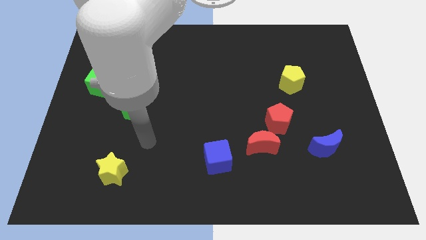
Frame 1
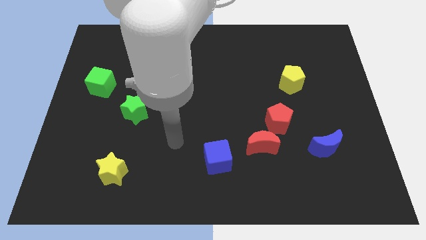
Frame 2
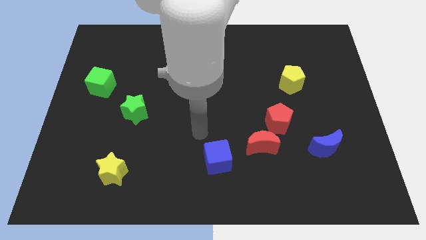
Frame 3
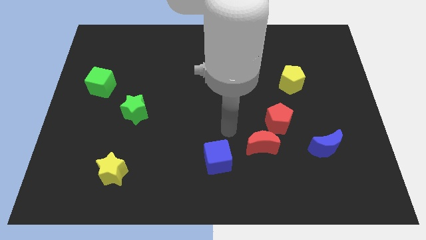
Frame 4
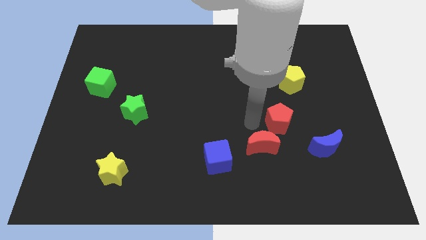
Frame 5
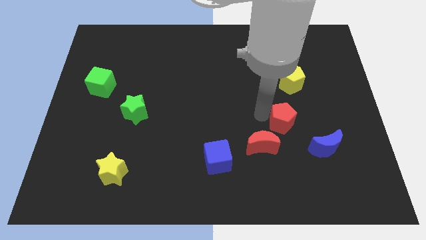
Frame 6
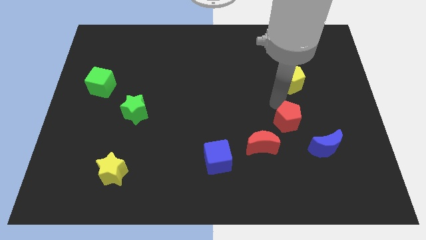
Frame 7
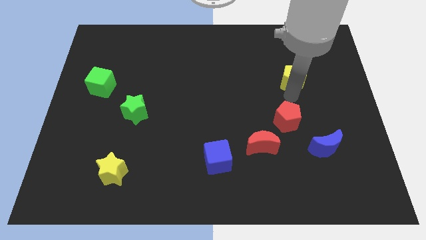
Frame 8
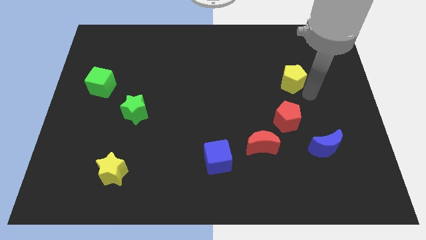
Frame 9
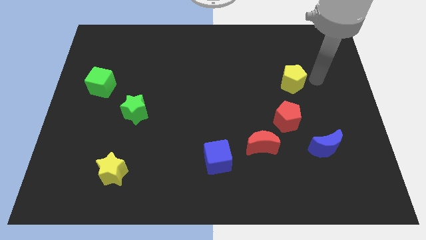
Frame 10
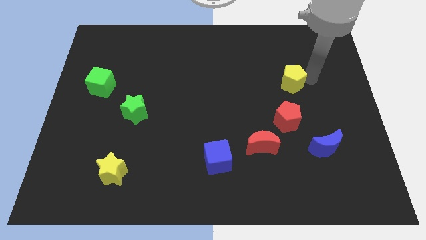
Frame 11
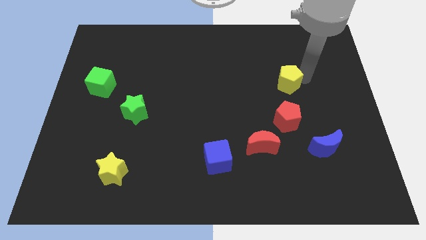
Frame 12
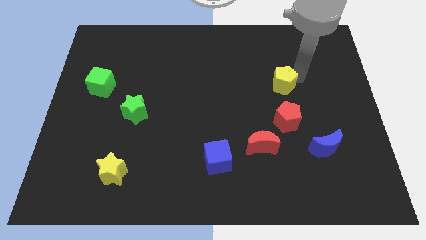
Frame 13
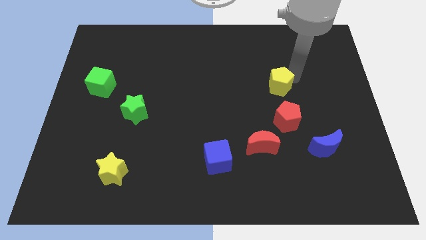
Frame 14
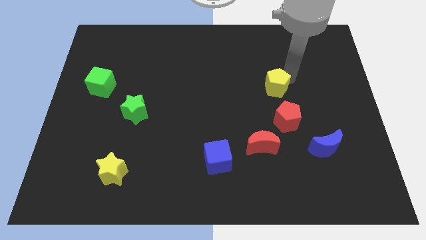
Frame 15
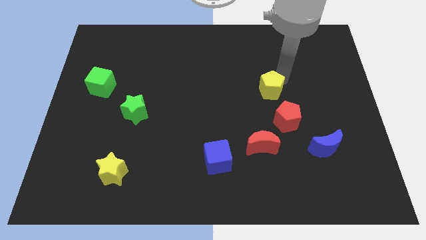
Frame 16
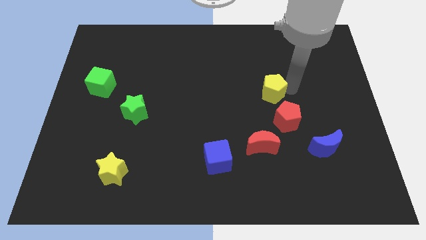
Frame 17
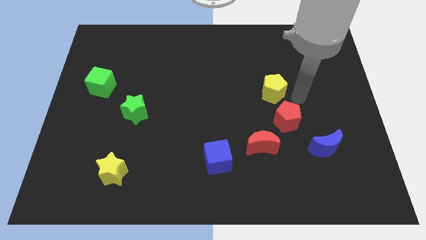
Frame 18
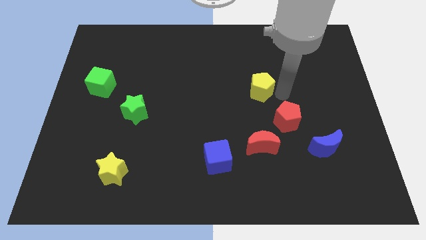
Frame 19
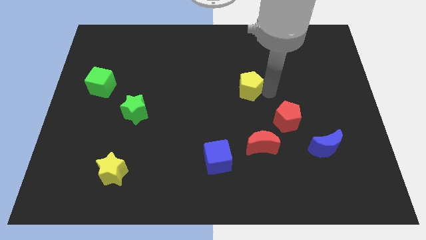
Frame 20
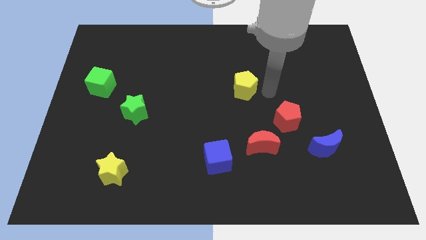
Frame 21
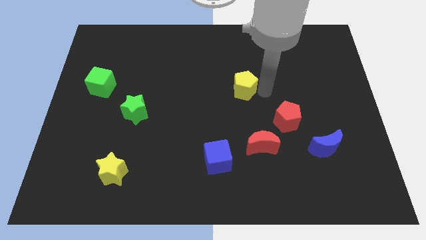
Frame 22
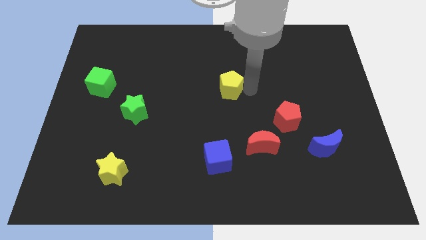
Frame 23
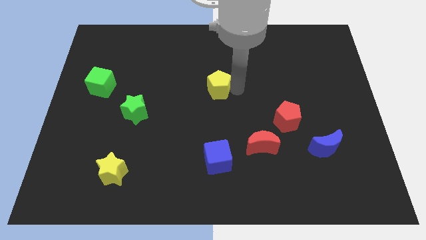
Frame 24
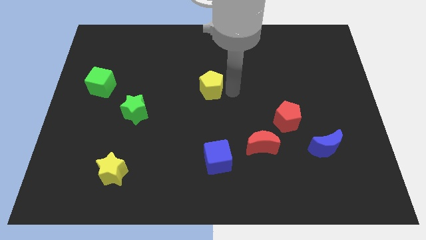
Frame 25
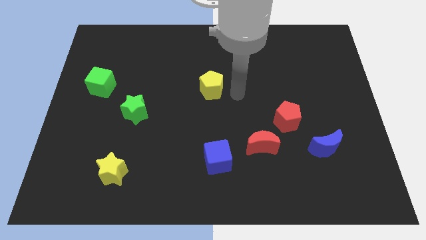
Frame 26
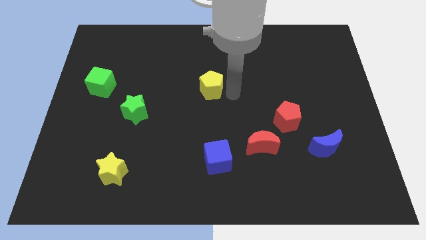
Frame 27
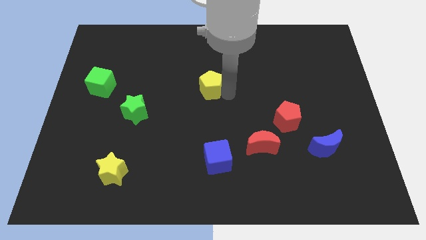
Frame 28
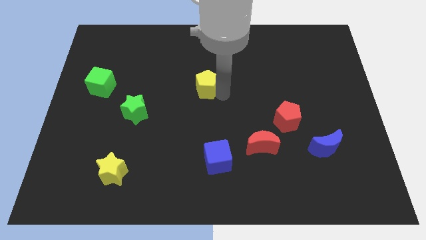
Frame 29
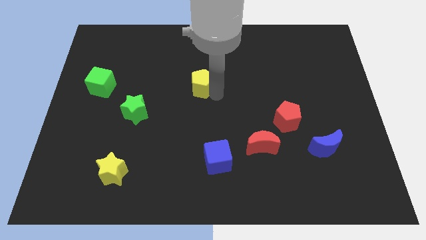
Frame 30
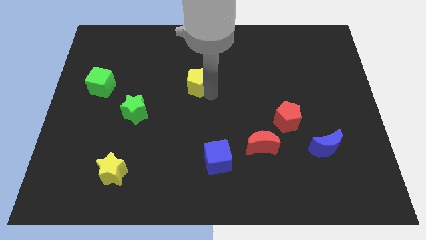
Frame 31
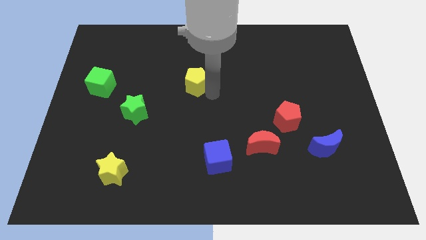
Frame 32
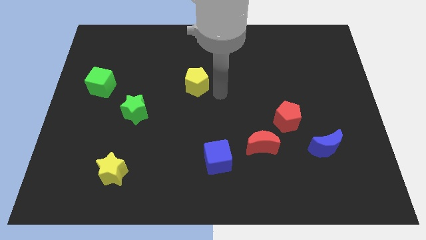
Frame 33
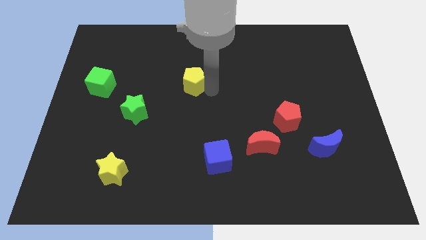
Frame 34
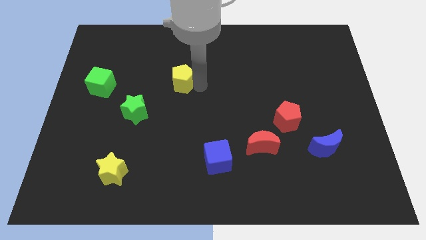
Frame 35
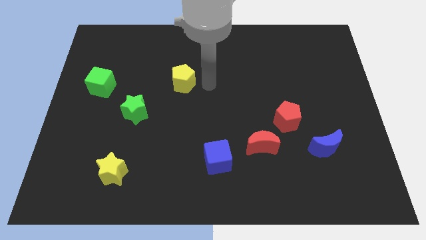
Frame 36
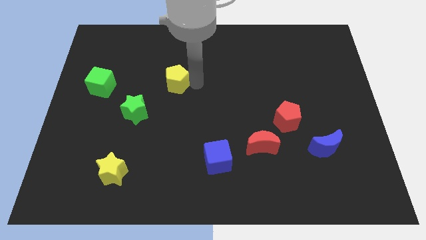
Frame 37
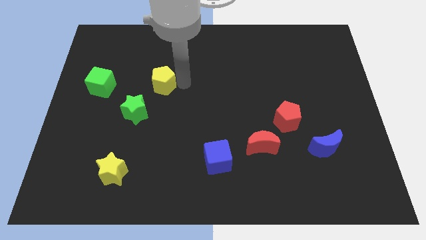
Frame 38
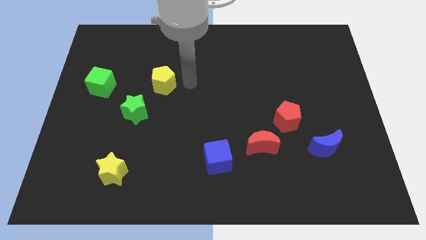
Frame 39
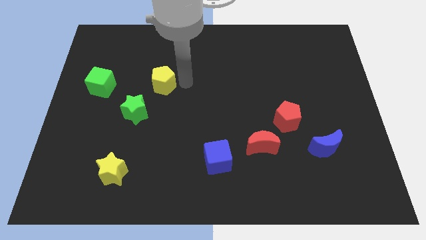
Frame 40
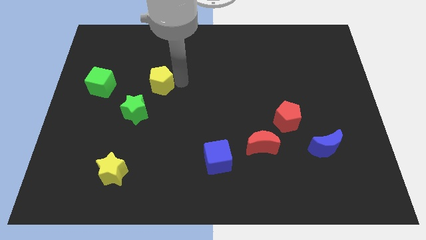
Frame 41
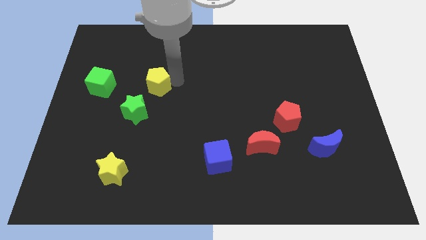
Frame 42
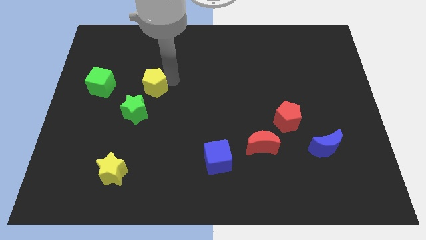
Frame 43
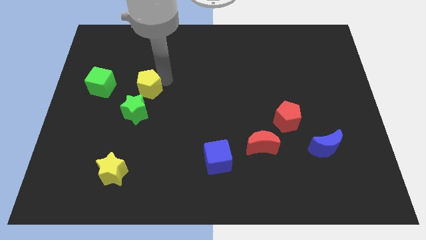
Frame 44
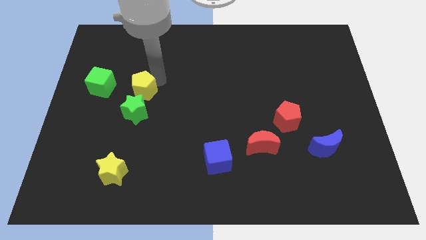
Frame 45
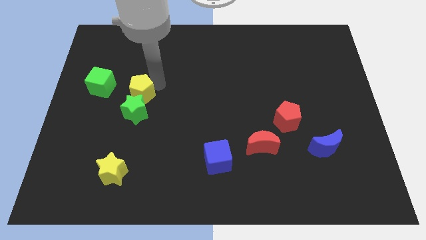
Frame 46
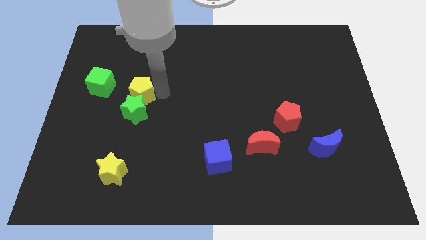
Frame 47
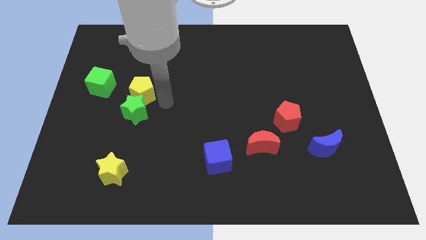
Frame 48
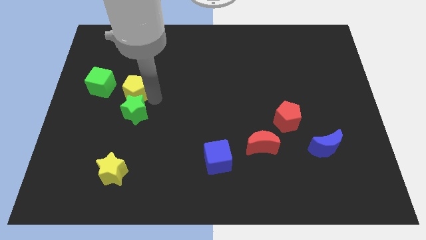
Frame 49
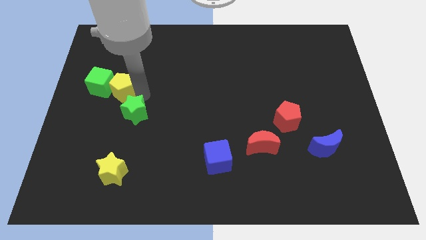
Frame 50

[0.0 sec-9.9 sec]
slide the yellow pentagon to the green cube

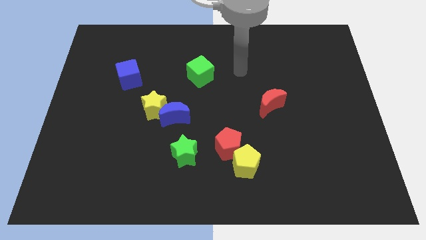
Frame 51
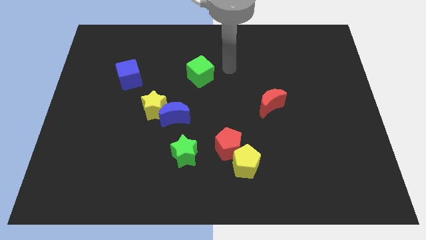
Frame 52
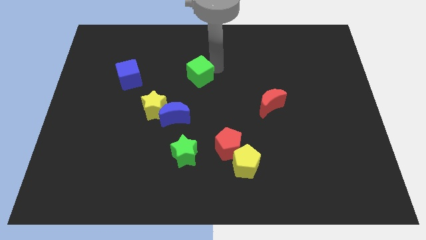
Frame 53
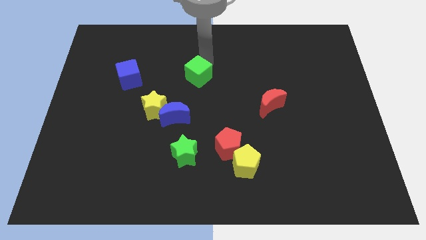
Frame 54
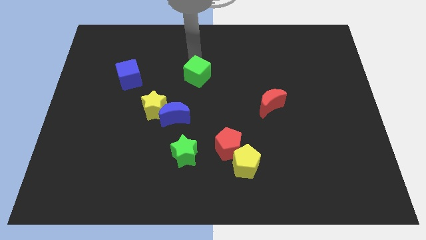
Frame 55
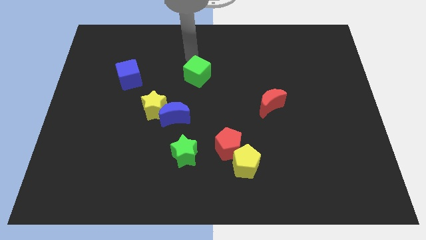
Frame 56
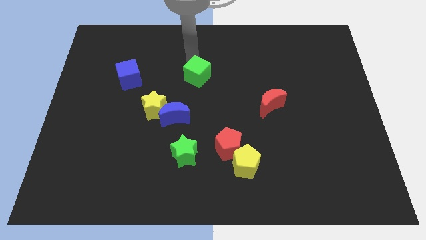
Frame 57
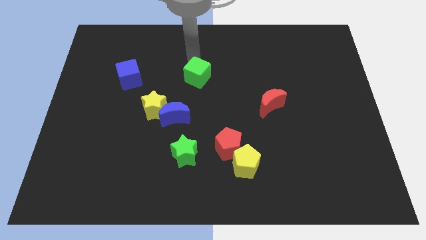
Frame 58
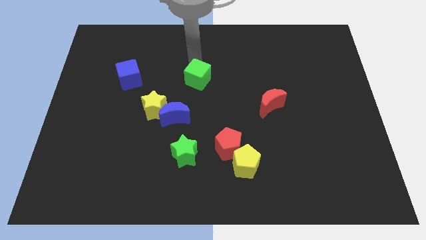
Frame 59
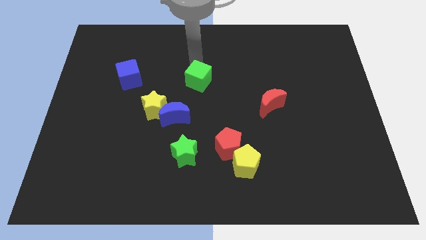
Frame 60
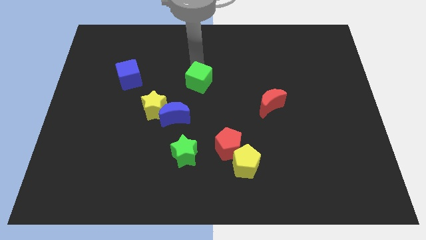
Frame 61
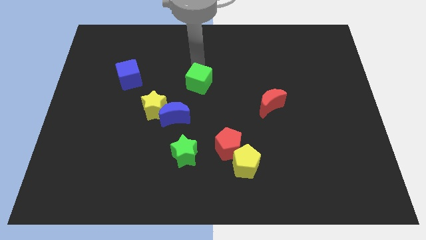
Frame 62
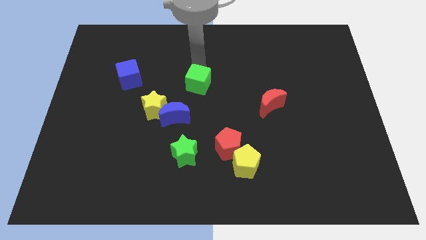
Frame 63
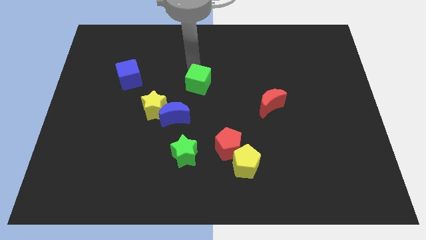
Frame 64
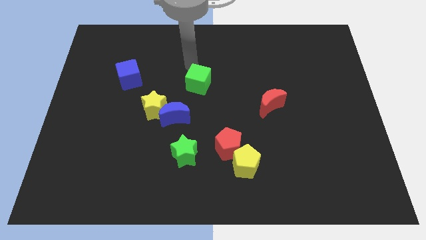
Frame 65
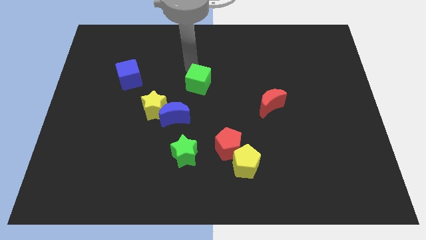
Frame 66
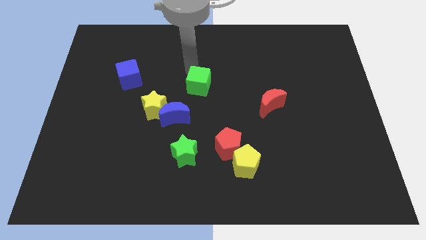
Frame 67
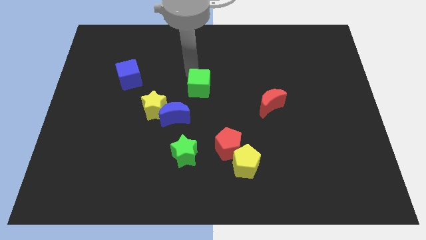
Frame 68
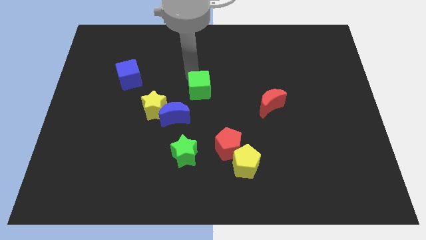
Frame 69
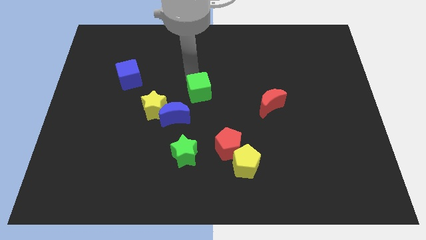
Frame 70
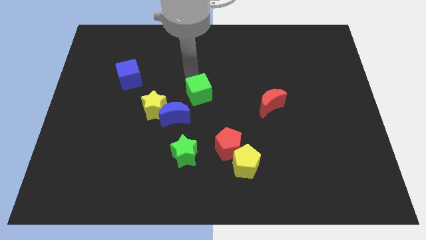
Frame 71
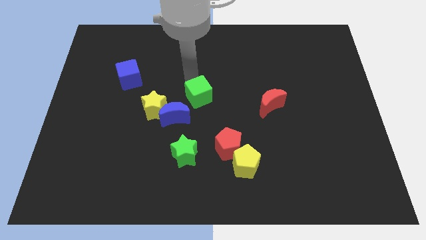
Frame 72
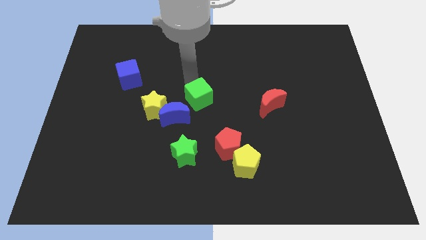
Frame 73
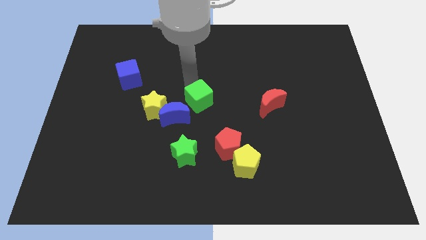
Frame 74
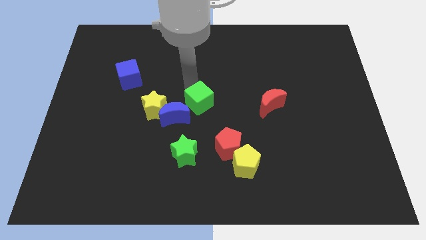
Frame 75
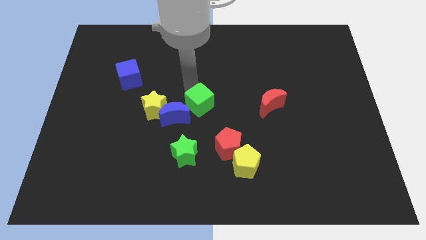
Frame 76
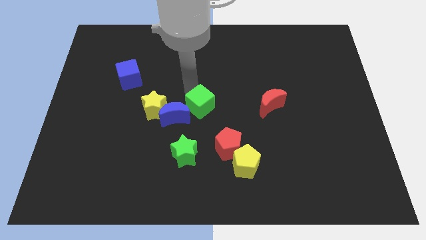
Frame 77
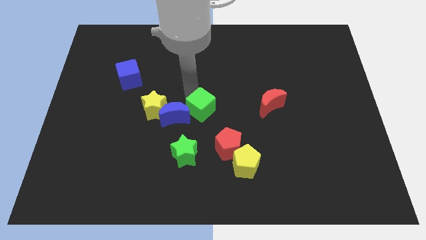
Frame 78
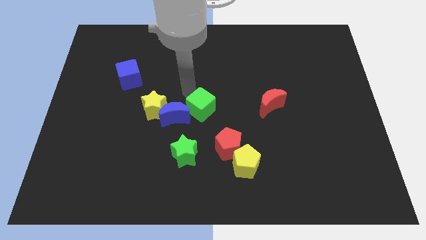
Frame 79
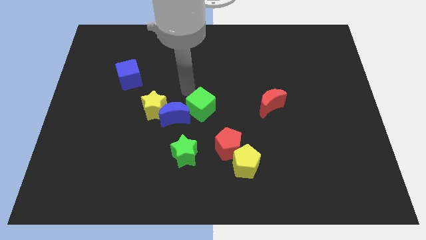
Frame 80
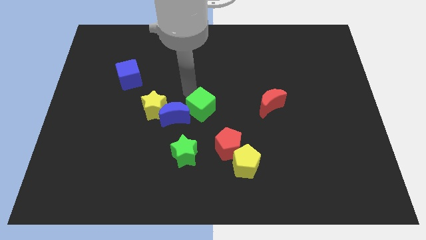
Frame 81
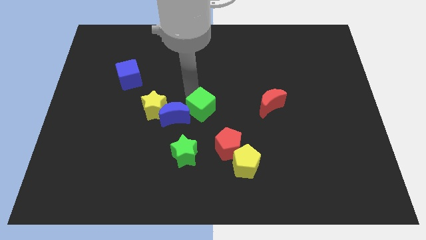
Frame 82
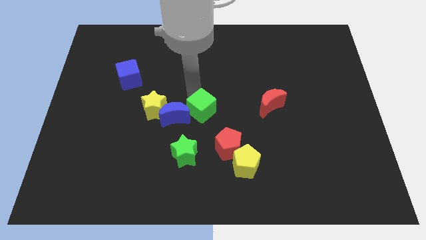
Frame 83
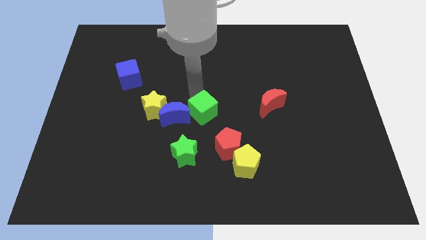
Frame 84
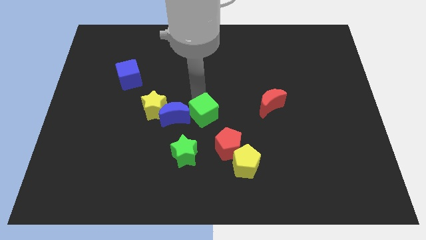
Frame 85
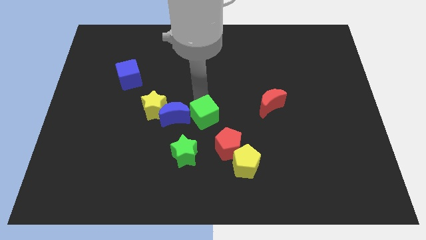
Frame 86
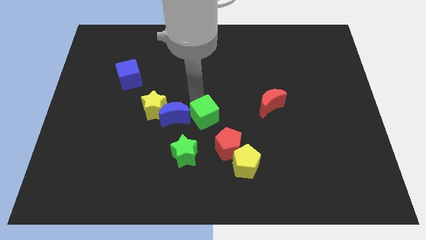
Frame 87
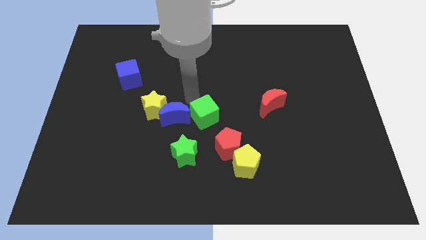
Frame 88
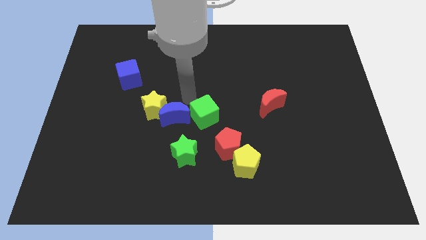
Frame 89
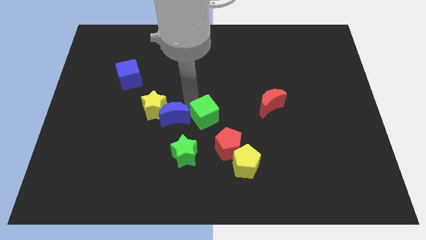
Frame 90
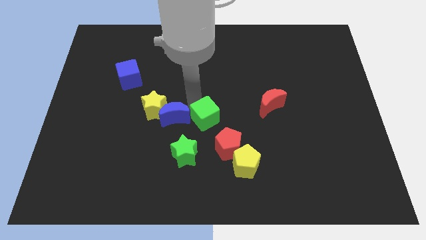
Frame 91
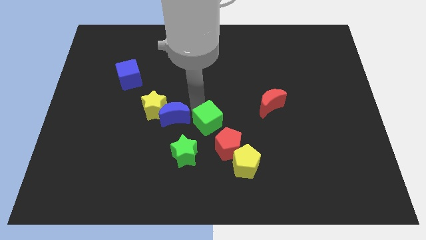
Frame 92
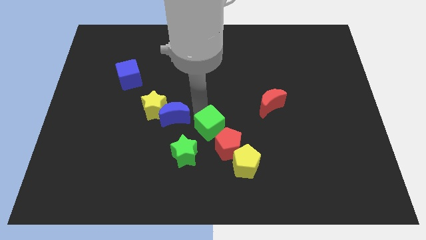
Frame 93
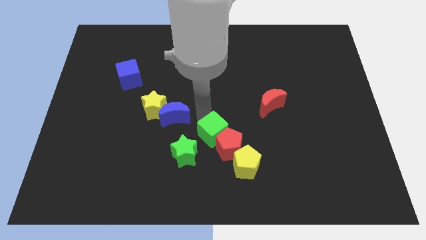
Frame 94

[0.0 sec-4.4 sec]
push the green cube to the red pentagon
